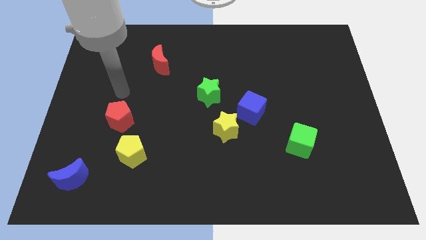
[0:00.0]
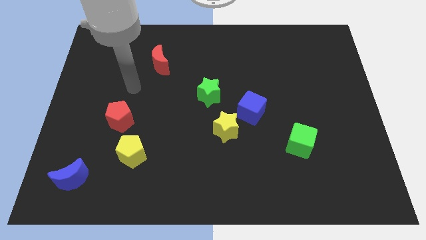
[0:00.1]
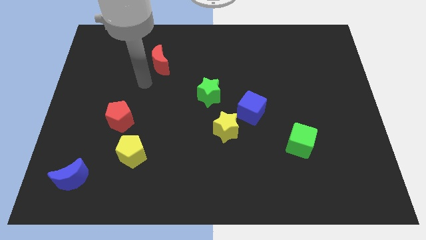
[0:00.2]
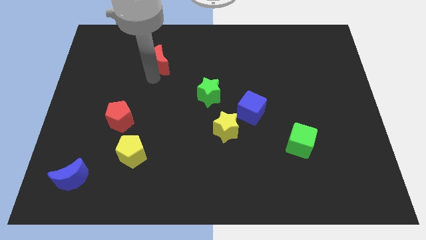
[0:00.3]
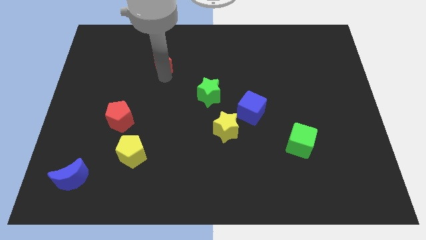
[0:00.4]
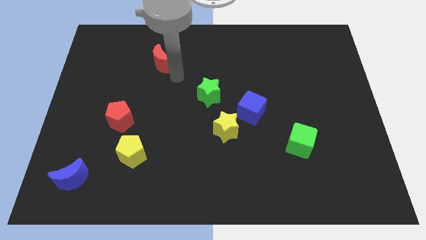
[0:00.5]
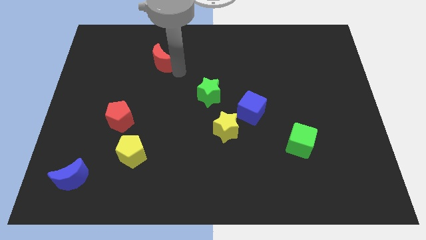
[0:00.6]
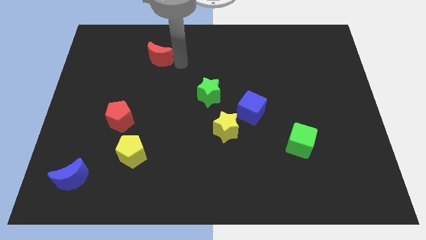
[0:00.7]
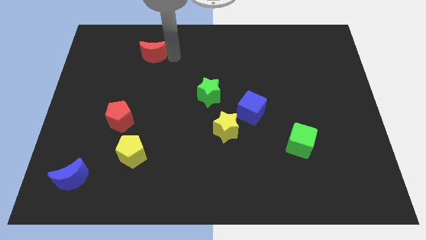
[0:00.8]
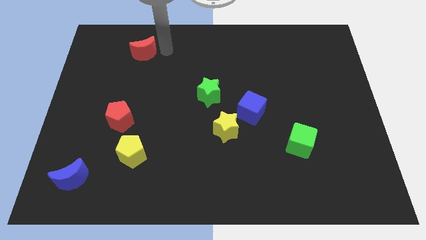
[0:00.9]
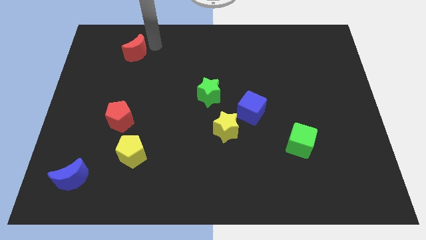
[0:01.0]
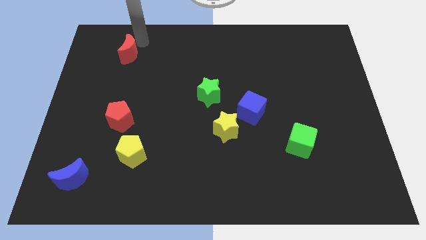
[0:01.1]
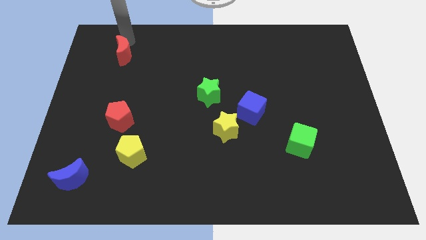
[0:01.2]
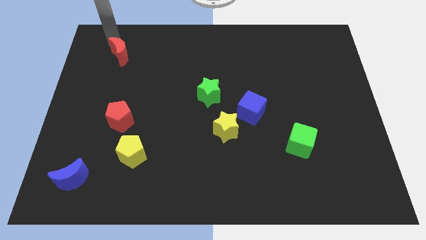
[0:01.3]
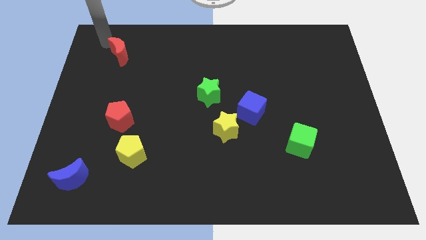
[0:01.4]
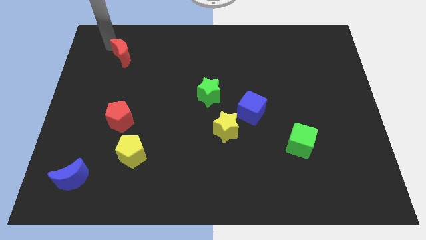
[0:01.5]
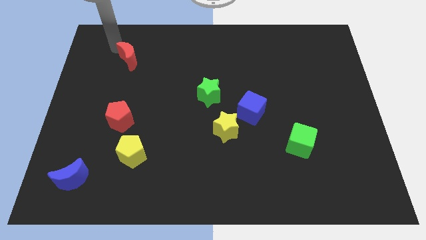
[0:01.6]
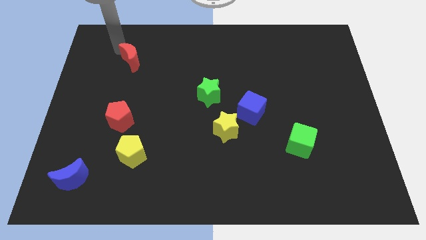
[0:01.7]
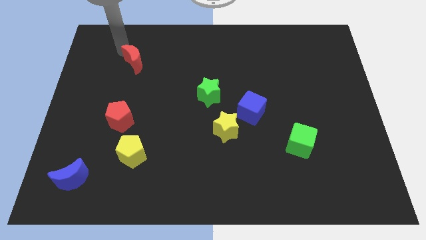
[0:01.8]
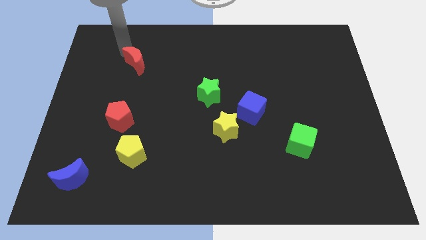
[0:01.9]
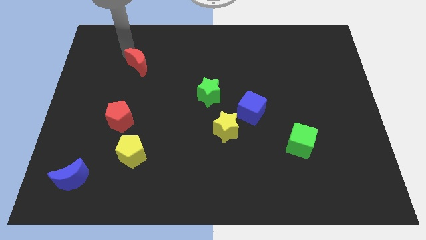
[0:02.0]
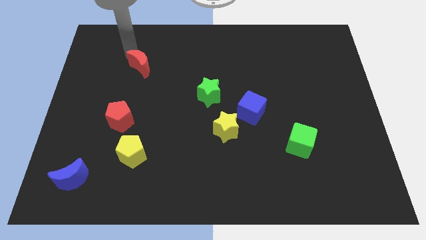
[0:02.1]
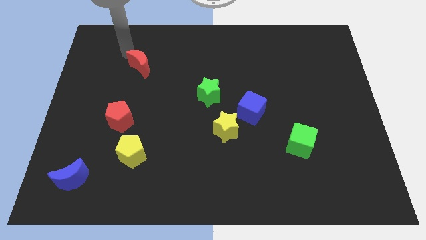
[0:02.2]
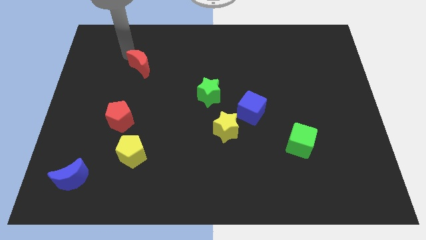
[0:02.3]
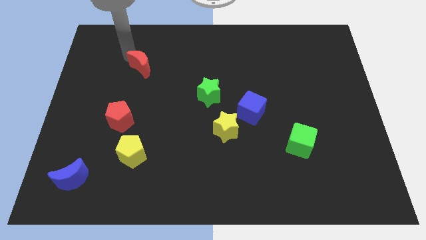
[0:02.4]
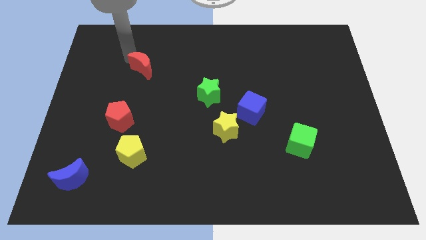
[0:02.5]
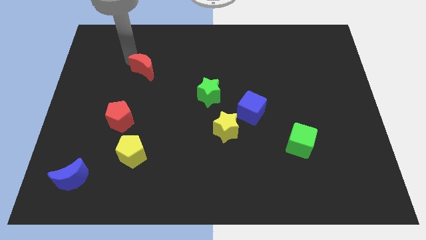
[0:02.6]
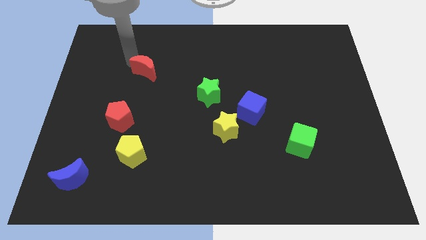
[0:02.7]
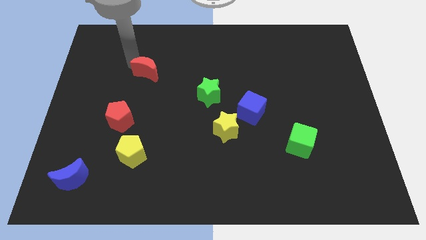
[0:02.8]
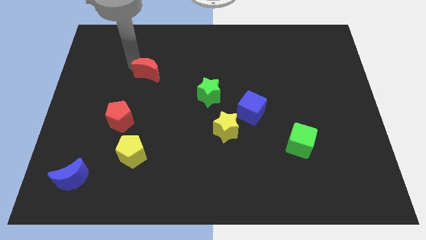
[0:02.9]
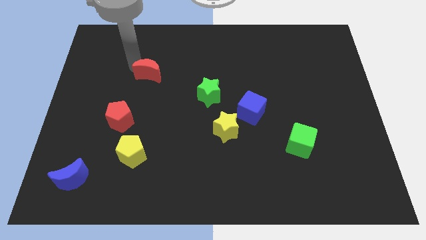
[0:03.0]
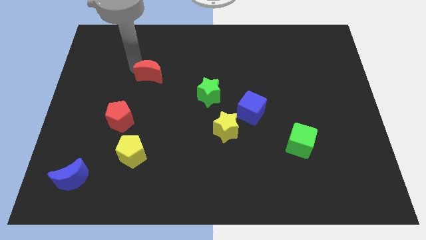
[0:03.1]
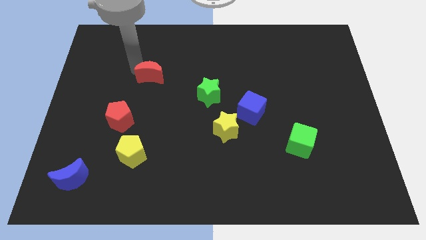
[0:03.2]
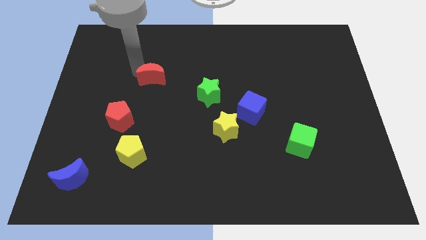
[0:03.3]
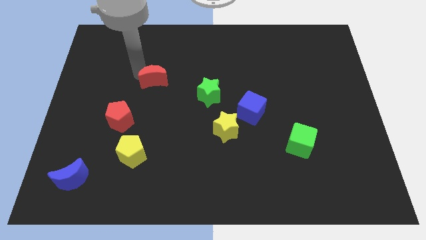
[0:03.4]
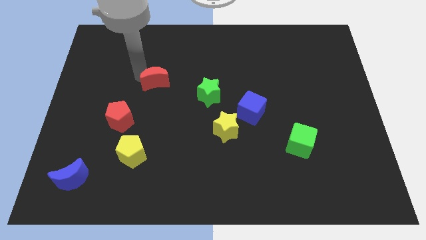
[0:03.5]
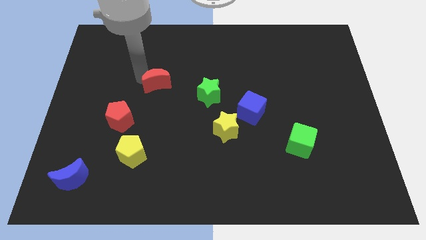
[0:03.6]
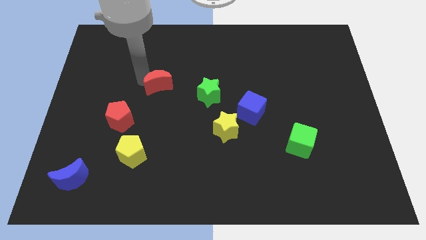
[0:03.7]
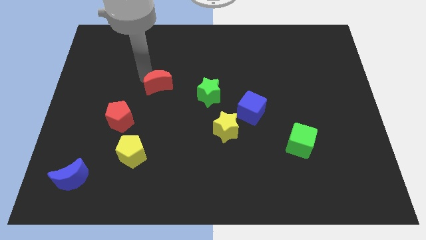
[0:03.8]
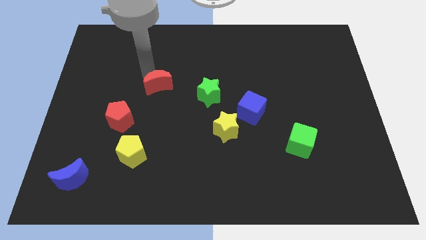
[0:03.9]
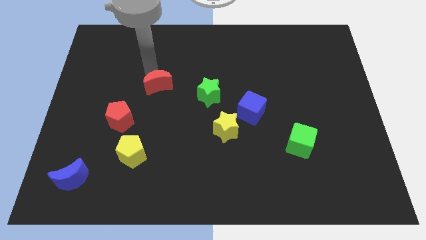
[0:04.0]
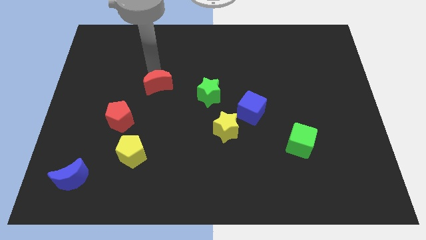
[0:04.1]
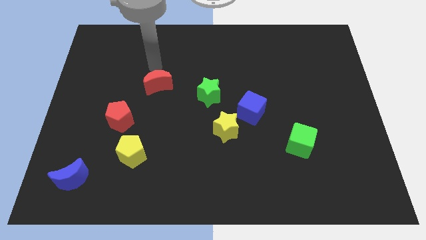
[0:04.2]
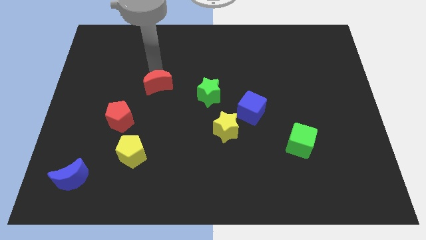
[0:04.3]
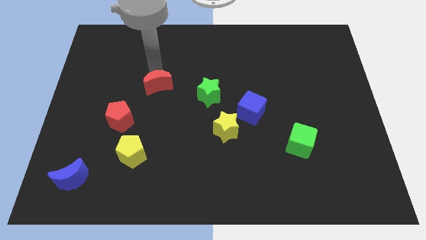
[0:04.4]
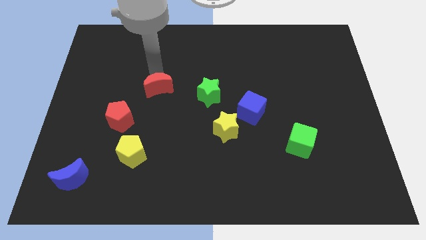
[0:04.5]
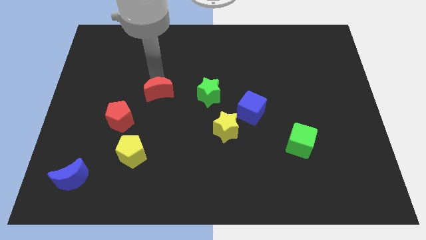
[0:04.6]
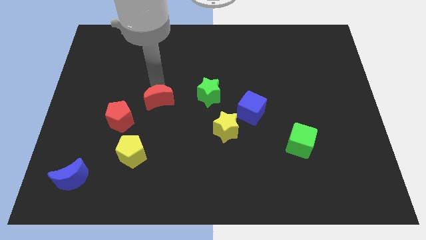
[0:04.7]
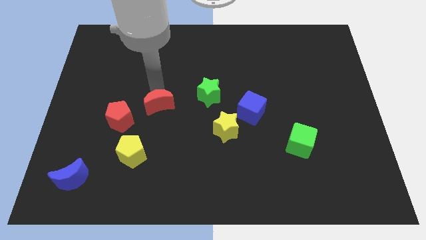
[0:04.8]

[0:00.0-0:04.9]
move the red moon just right of the red pentagon

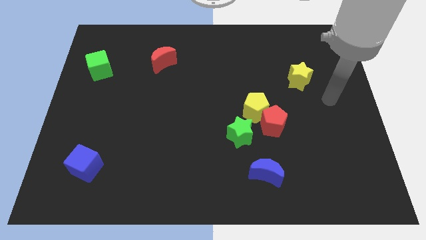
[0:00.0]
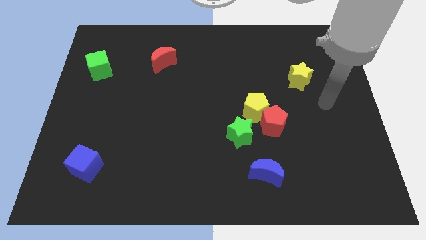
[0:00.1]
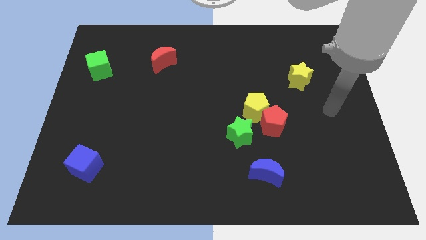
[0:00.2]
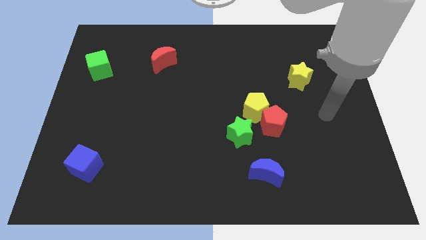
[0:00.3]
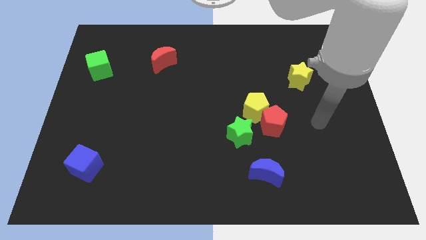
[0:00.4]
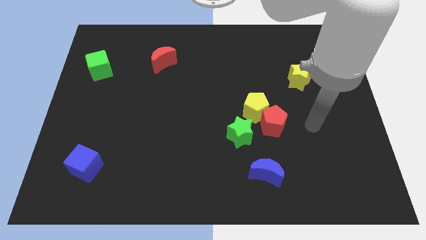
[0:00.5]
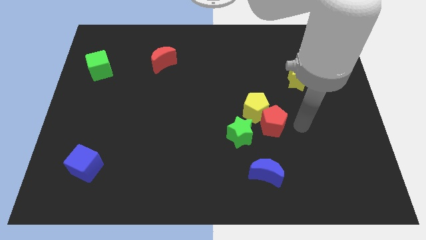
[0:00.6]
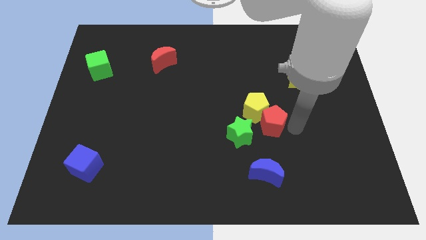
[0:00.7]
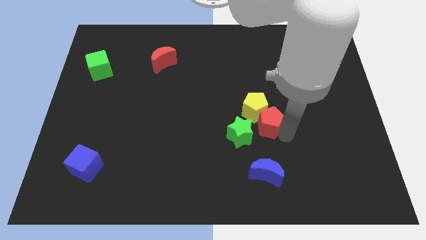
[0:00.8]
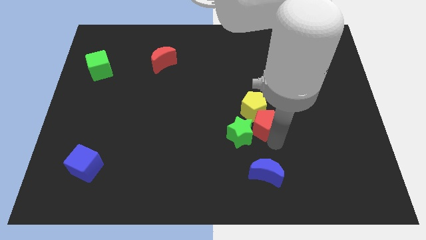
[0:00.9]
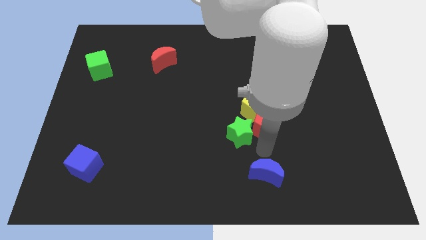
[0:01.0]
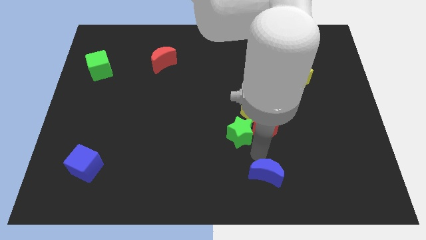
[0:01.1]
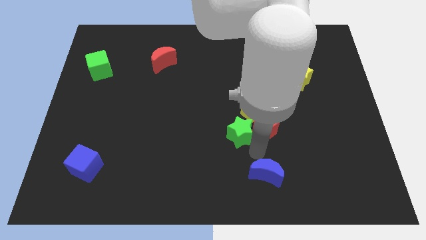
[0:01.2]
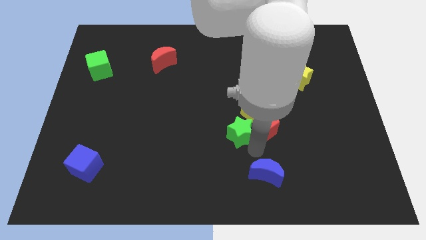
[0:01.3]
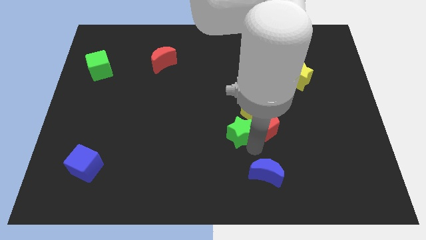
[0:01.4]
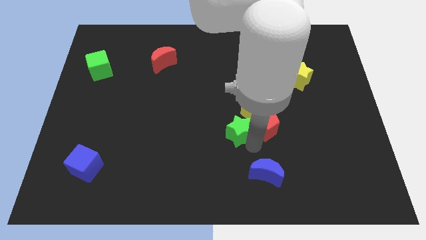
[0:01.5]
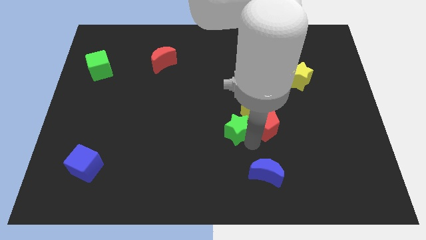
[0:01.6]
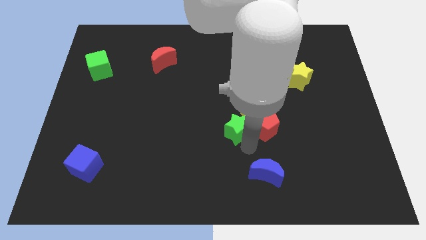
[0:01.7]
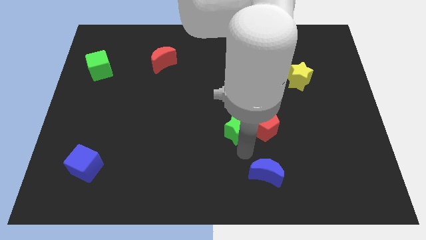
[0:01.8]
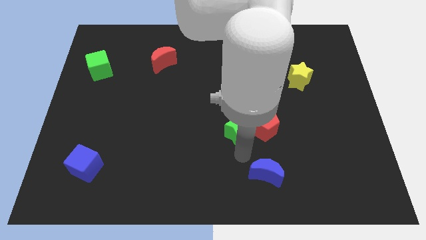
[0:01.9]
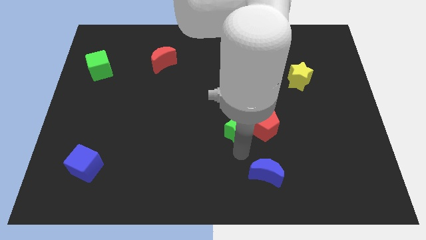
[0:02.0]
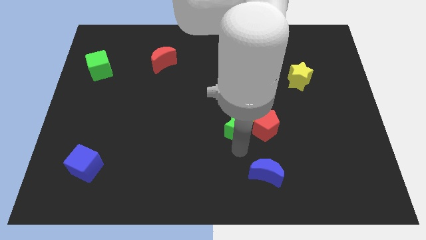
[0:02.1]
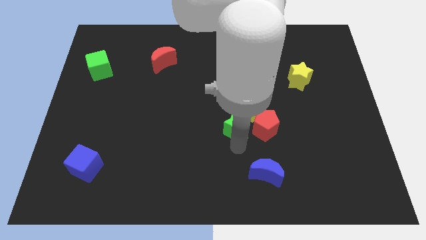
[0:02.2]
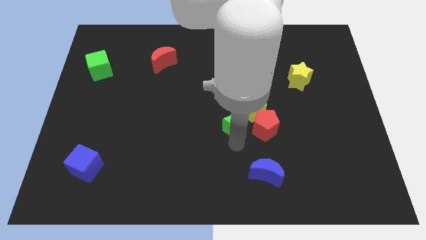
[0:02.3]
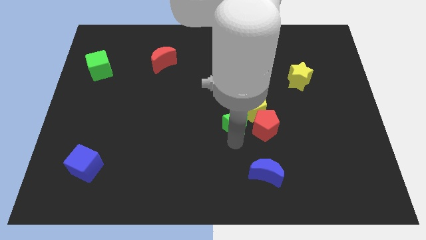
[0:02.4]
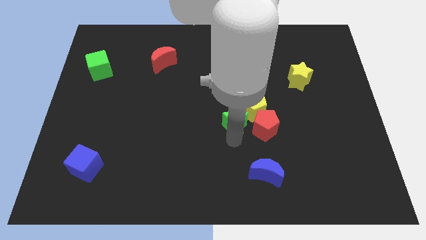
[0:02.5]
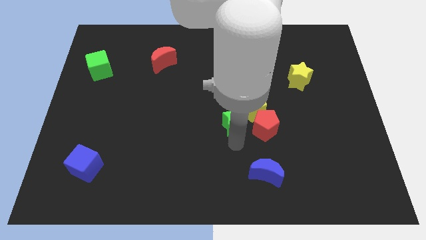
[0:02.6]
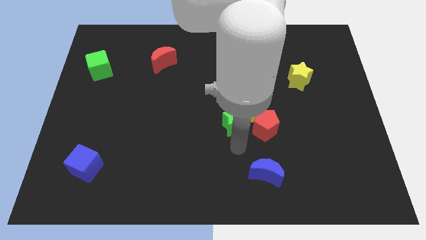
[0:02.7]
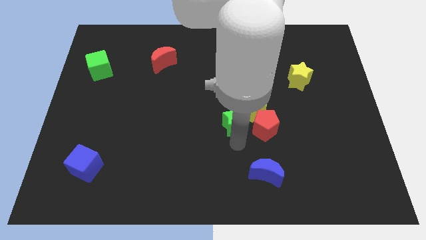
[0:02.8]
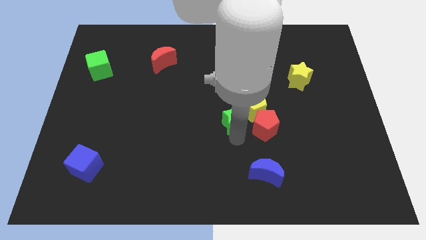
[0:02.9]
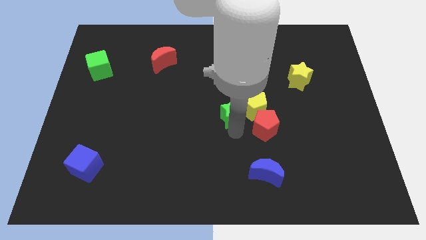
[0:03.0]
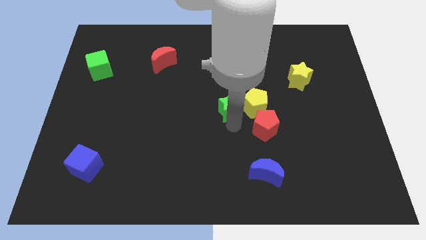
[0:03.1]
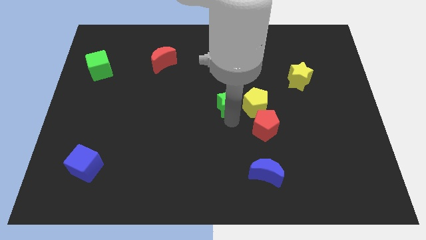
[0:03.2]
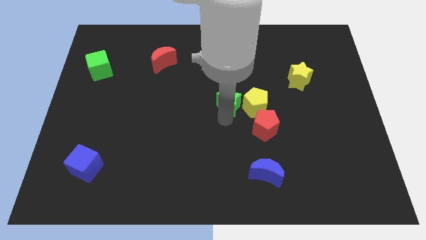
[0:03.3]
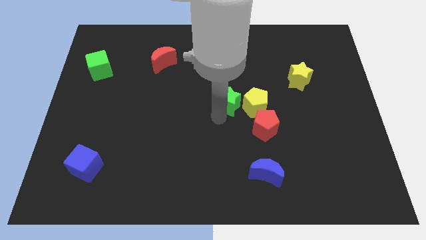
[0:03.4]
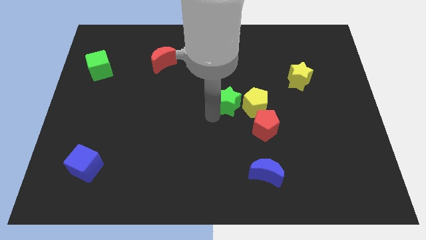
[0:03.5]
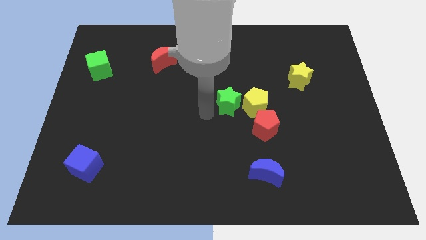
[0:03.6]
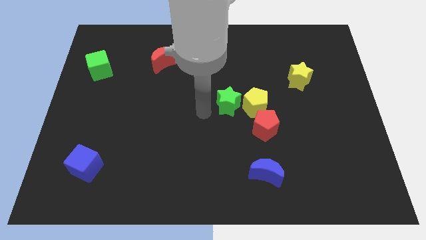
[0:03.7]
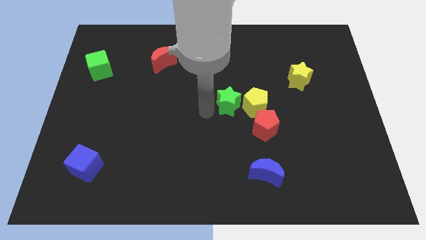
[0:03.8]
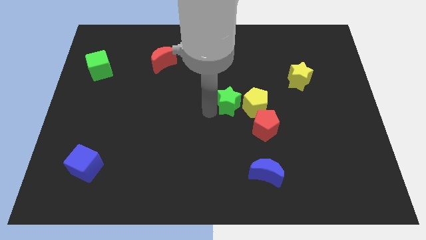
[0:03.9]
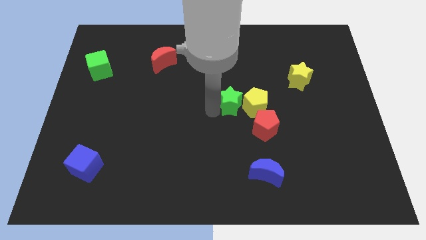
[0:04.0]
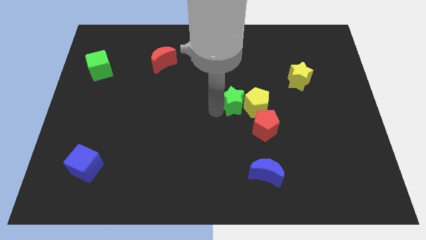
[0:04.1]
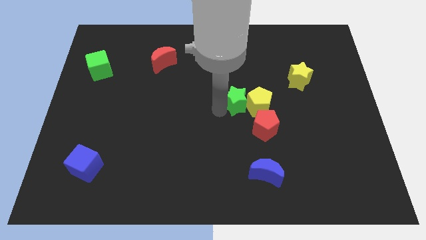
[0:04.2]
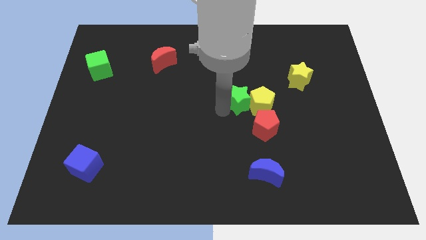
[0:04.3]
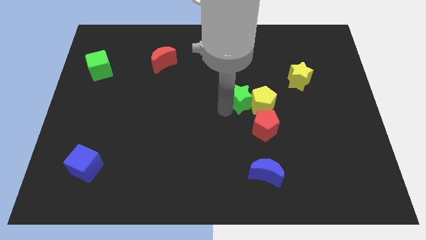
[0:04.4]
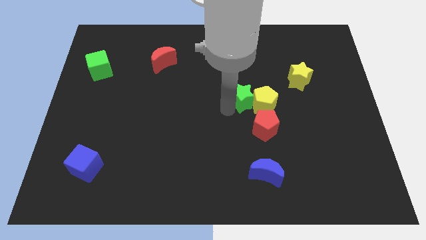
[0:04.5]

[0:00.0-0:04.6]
slide the green star above the red pentagon
